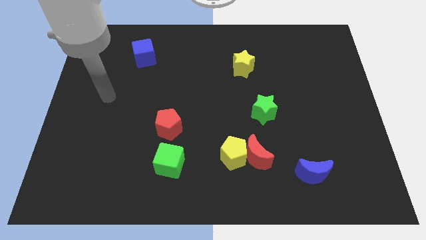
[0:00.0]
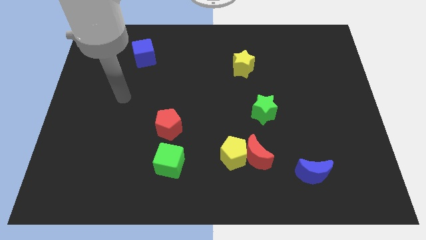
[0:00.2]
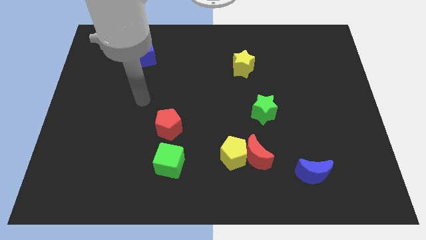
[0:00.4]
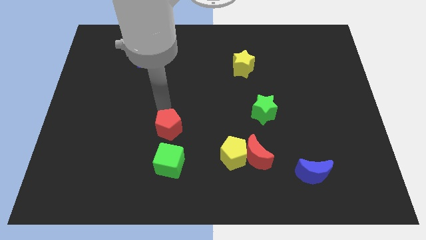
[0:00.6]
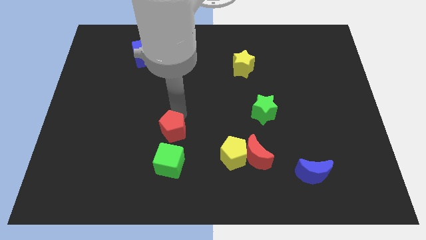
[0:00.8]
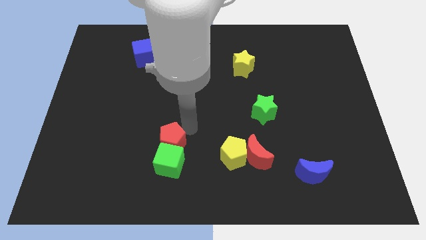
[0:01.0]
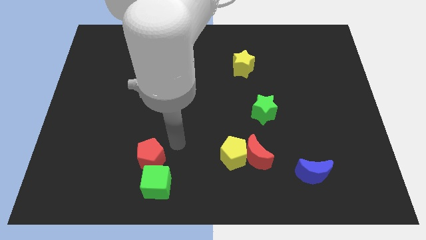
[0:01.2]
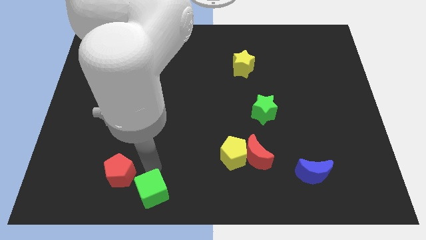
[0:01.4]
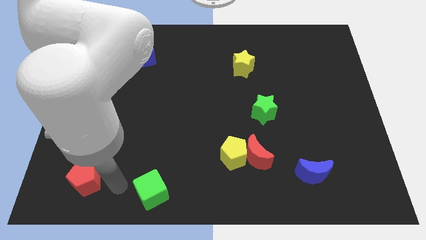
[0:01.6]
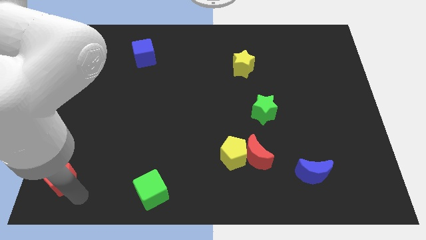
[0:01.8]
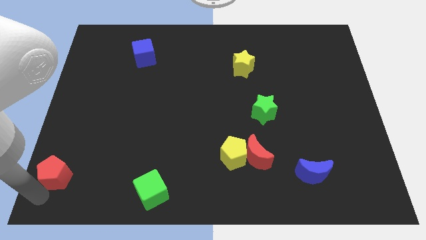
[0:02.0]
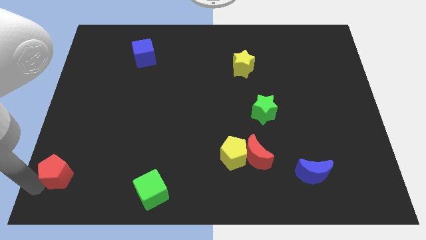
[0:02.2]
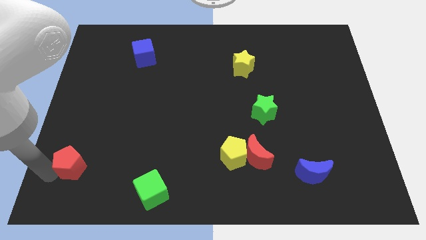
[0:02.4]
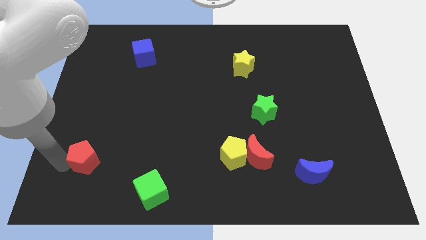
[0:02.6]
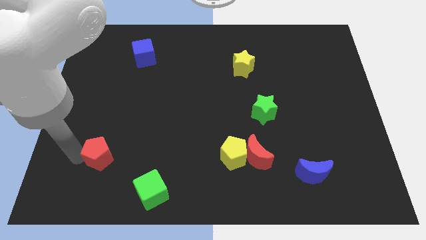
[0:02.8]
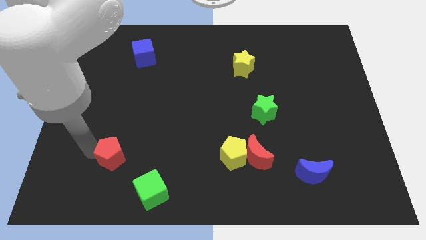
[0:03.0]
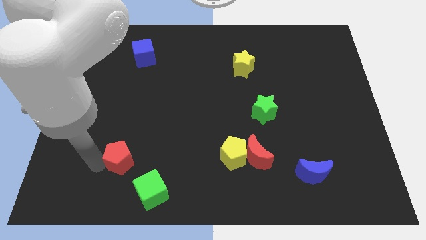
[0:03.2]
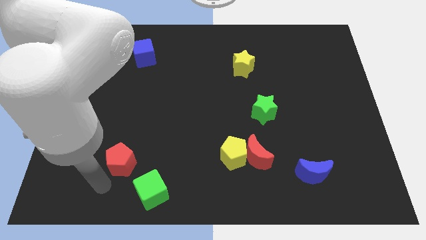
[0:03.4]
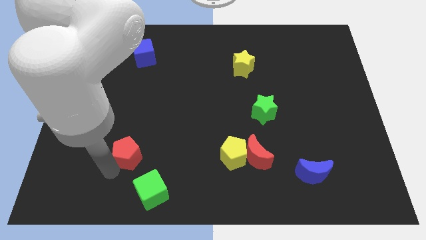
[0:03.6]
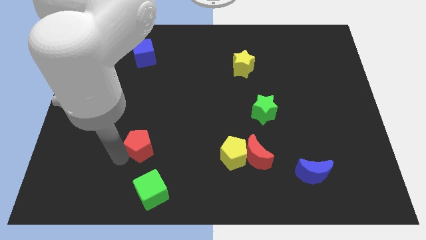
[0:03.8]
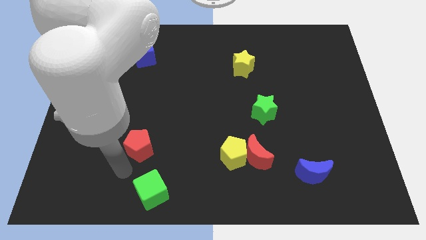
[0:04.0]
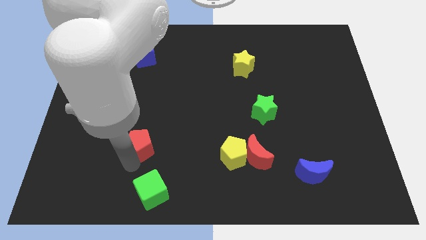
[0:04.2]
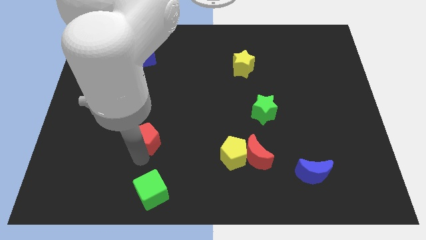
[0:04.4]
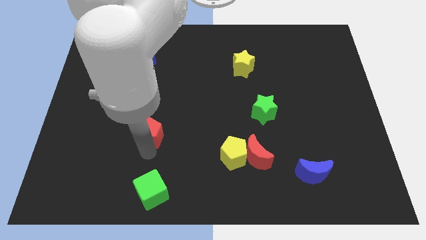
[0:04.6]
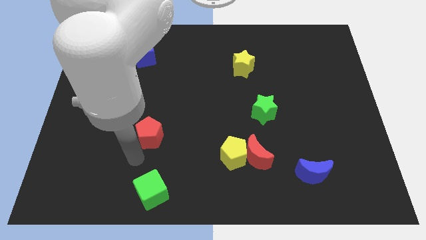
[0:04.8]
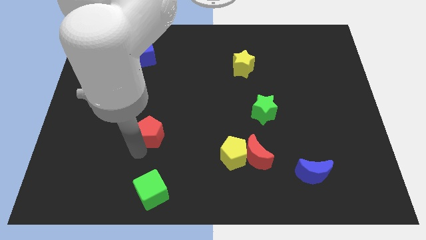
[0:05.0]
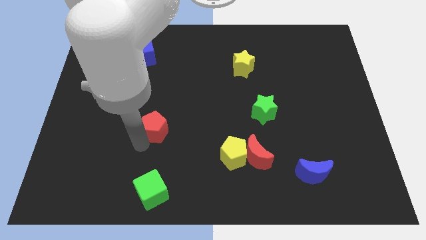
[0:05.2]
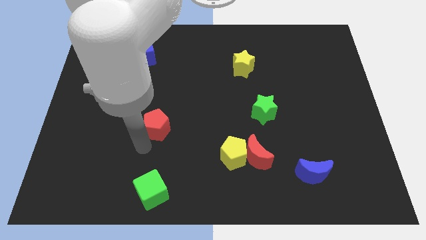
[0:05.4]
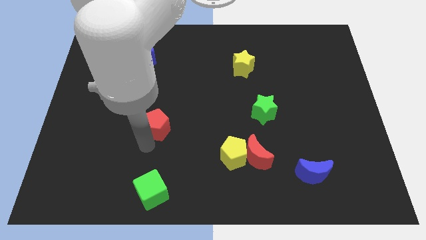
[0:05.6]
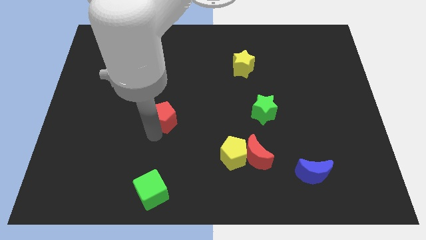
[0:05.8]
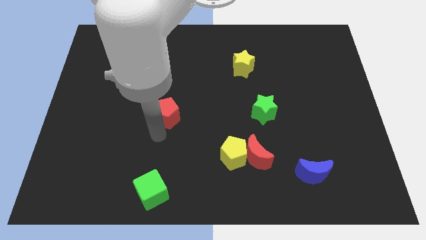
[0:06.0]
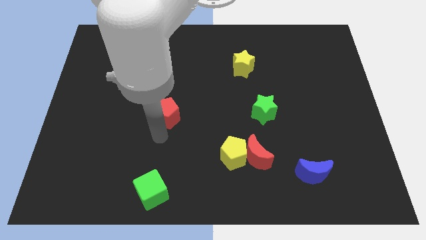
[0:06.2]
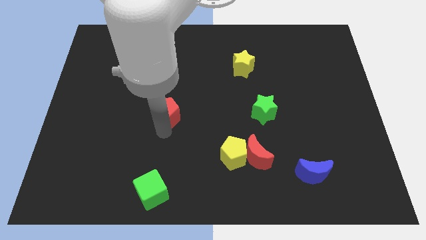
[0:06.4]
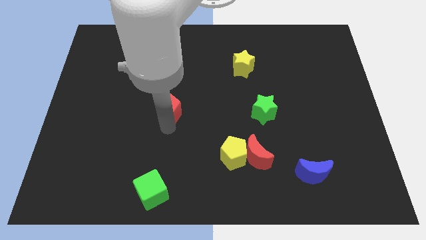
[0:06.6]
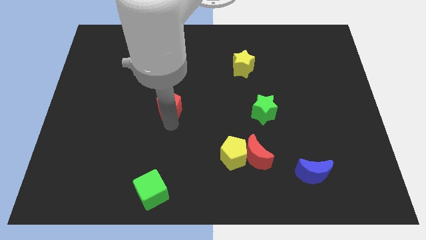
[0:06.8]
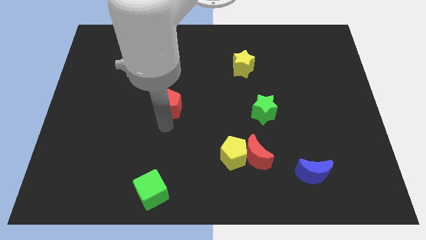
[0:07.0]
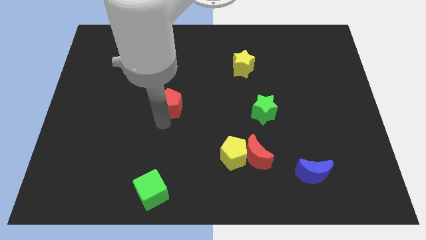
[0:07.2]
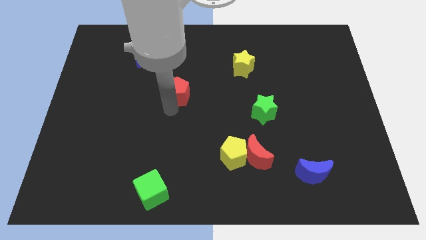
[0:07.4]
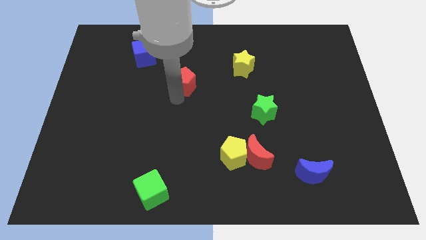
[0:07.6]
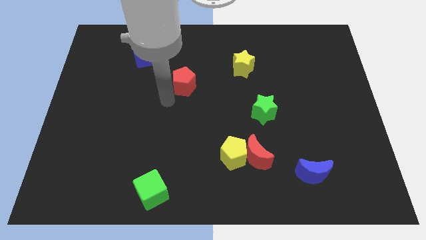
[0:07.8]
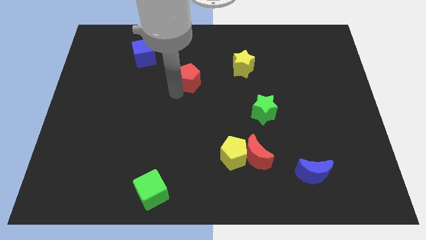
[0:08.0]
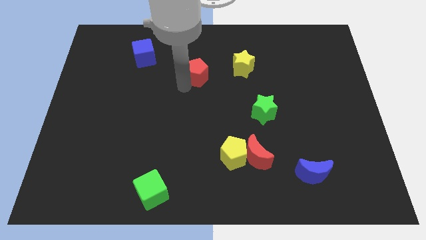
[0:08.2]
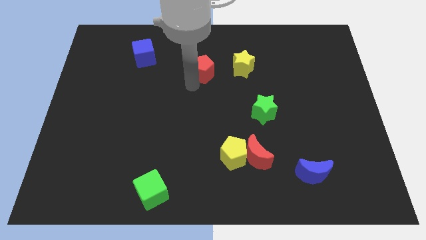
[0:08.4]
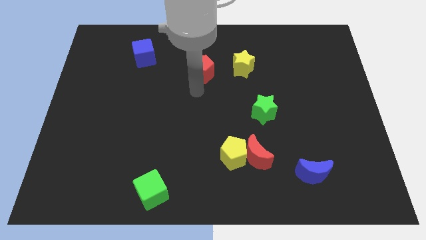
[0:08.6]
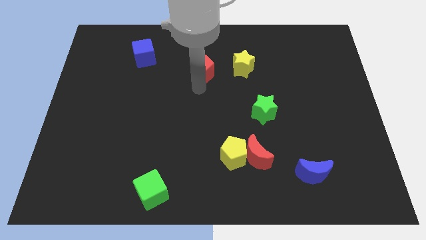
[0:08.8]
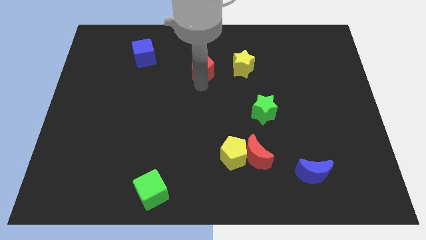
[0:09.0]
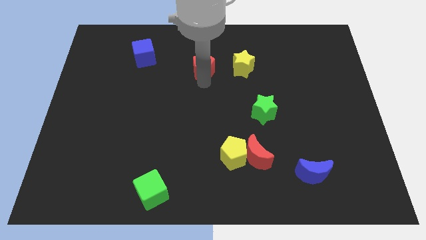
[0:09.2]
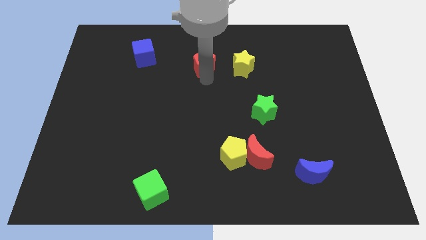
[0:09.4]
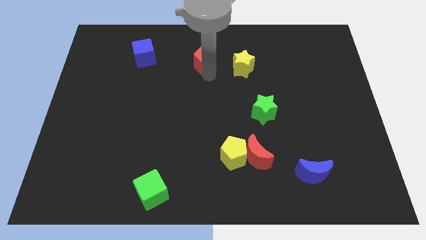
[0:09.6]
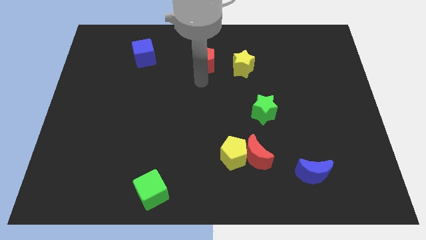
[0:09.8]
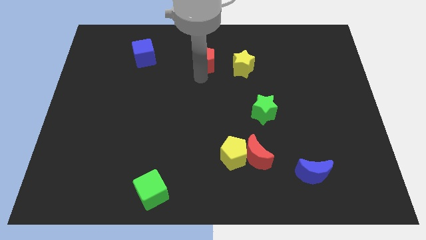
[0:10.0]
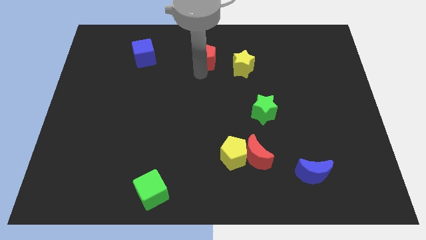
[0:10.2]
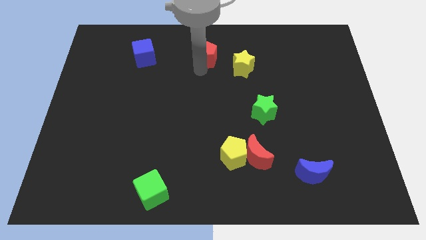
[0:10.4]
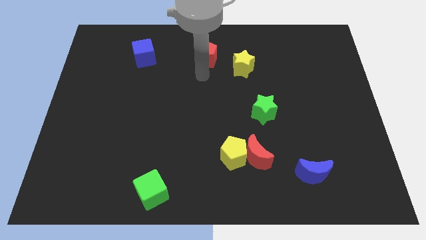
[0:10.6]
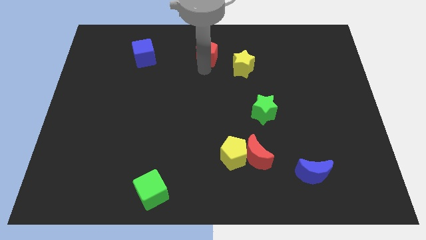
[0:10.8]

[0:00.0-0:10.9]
push the red pentagon to the top side

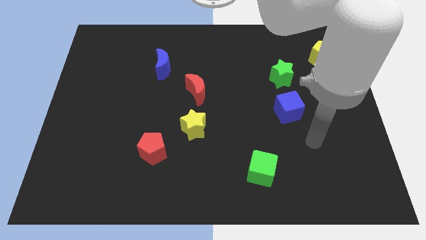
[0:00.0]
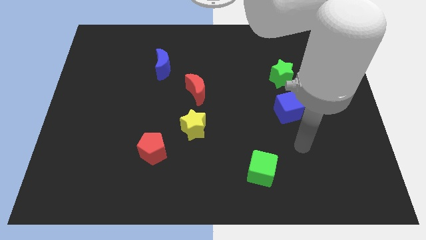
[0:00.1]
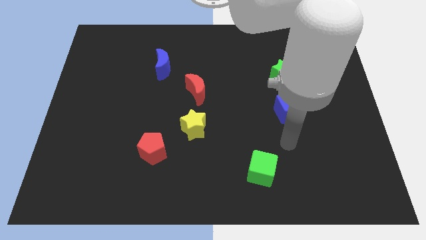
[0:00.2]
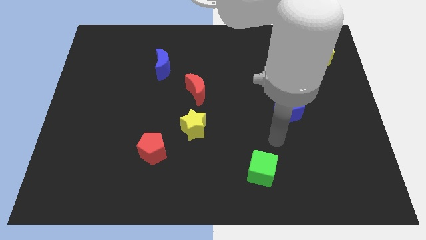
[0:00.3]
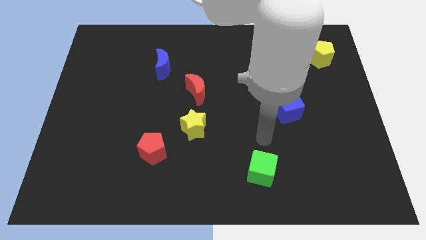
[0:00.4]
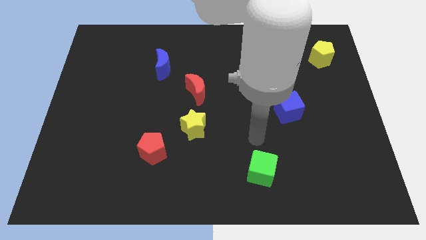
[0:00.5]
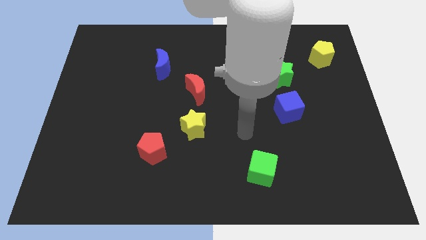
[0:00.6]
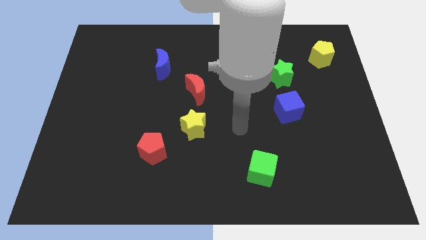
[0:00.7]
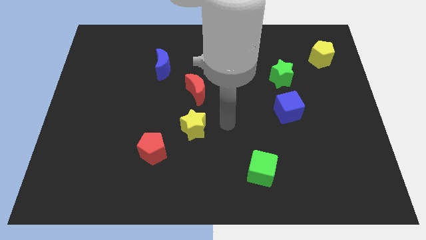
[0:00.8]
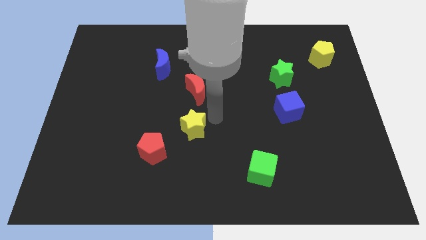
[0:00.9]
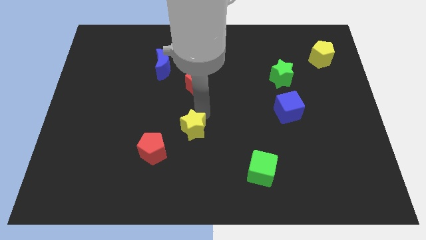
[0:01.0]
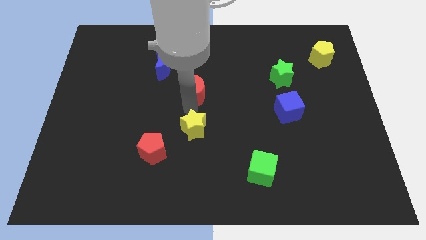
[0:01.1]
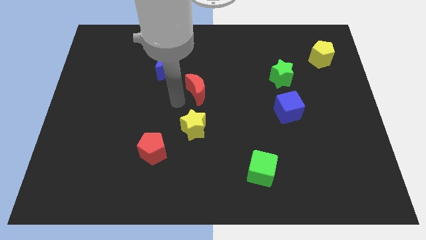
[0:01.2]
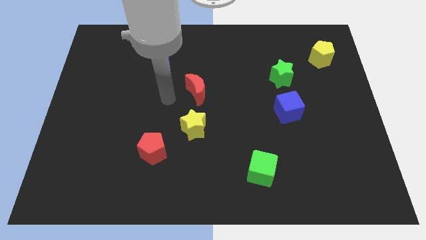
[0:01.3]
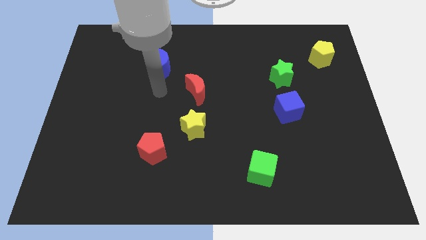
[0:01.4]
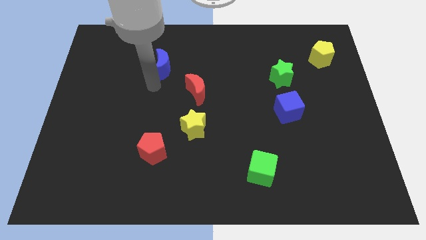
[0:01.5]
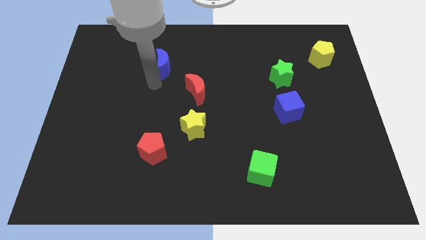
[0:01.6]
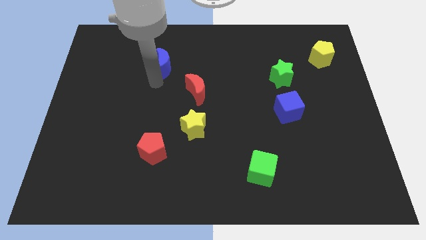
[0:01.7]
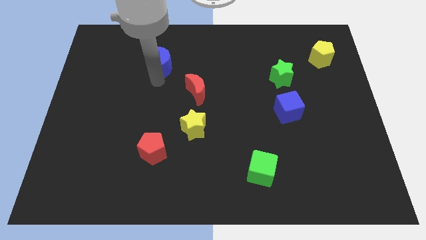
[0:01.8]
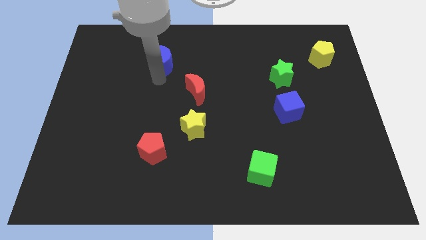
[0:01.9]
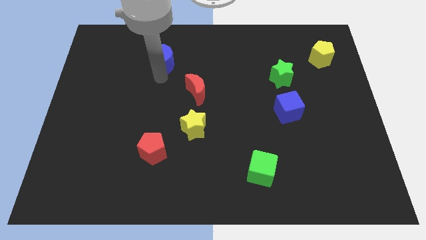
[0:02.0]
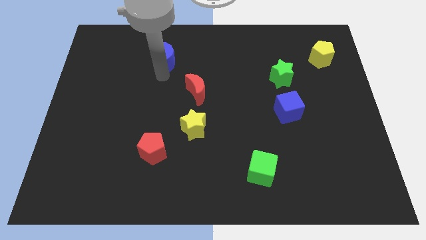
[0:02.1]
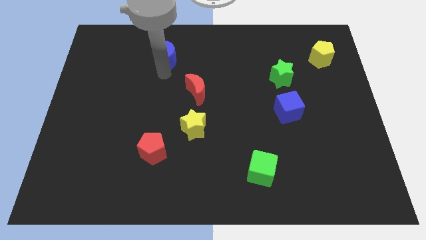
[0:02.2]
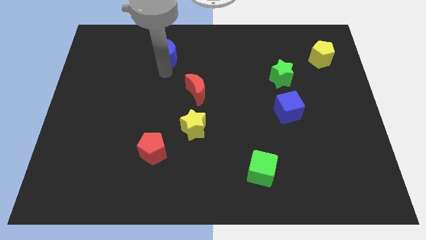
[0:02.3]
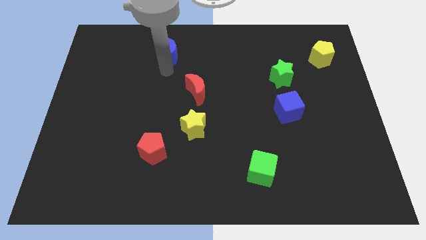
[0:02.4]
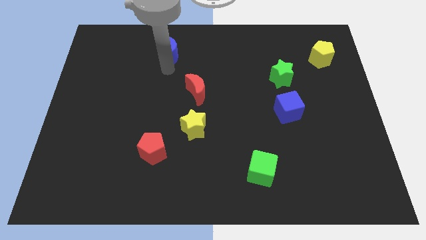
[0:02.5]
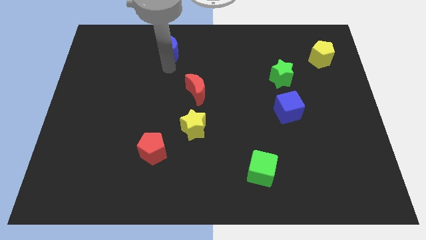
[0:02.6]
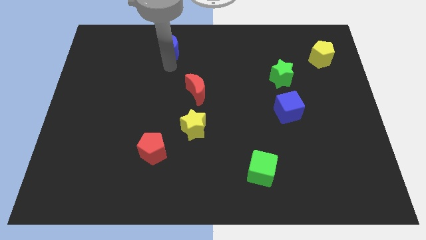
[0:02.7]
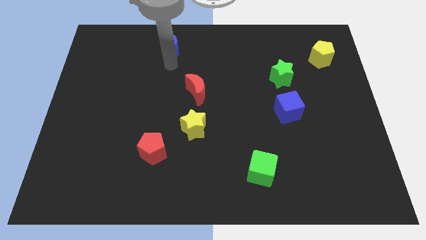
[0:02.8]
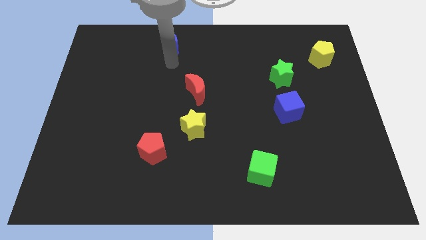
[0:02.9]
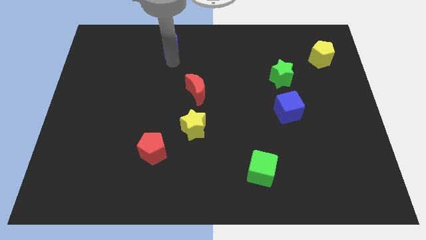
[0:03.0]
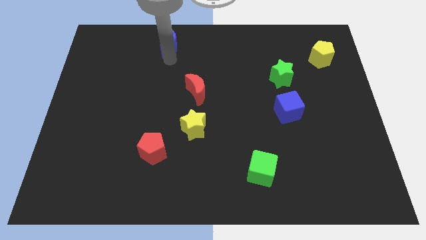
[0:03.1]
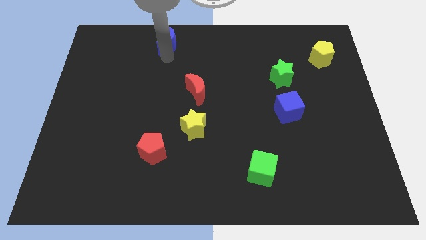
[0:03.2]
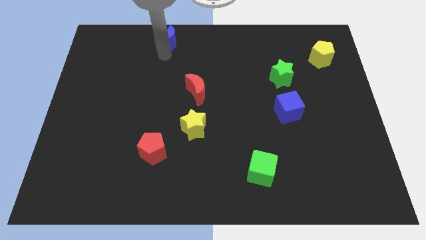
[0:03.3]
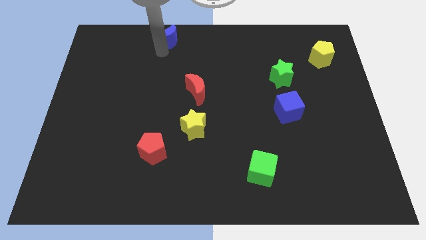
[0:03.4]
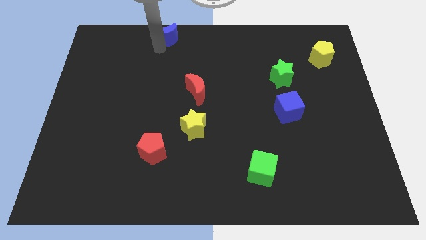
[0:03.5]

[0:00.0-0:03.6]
move the blue moon to the towards your base
